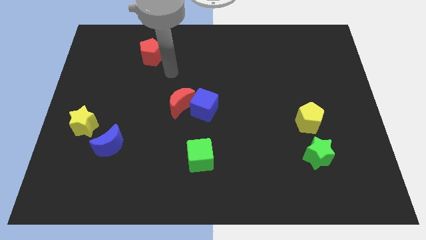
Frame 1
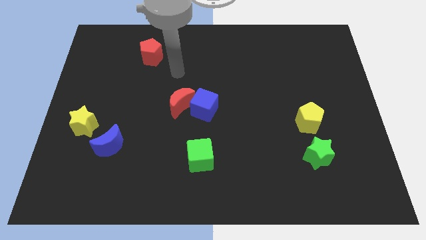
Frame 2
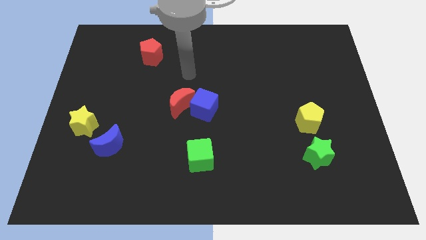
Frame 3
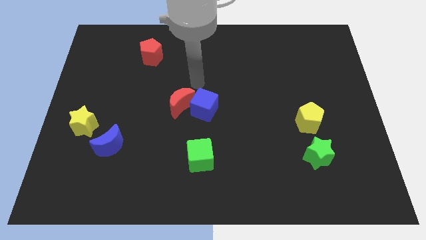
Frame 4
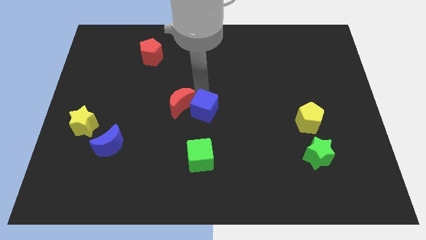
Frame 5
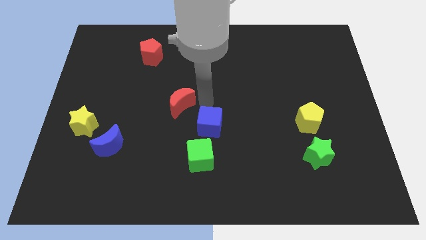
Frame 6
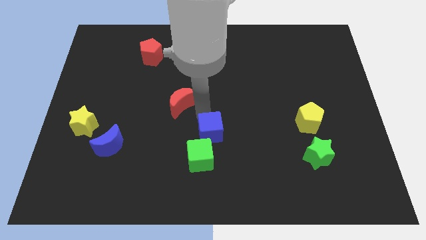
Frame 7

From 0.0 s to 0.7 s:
pull the red moon apart from the blue cube

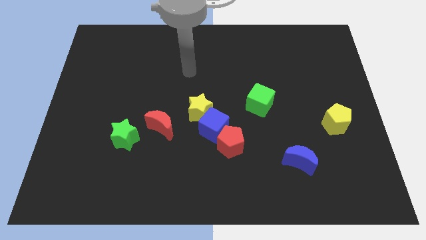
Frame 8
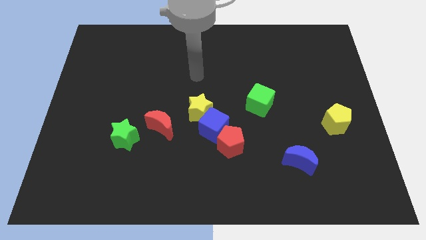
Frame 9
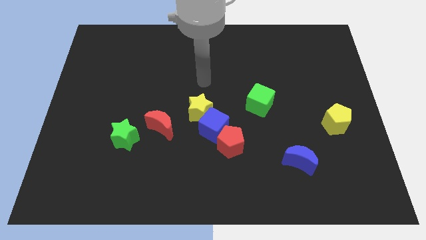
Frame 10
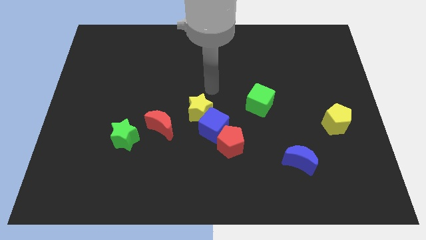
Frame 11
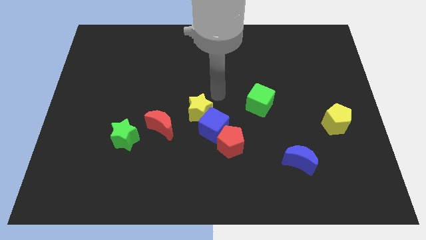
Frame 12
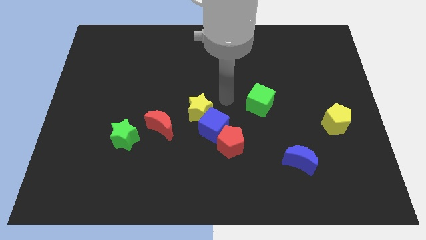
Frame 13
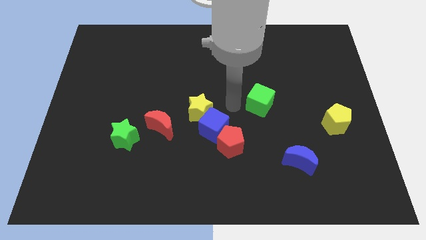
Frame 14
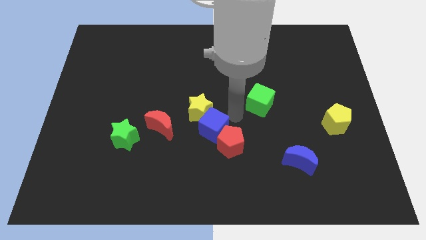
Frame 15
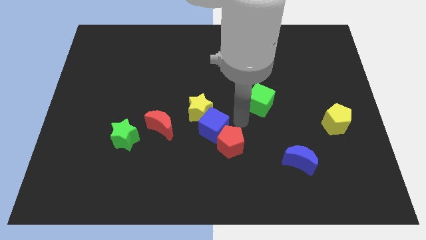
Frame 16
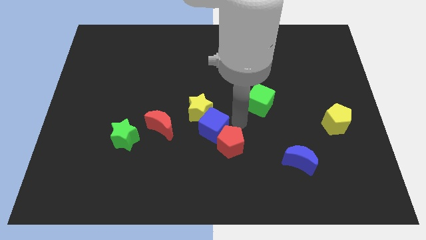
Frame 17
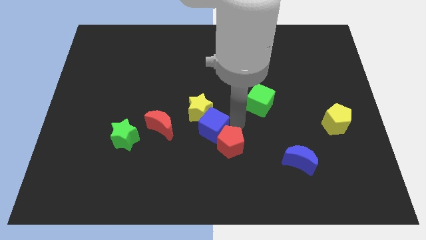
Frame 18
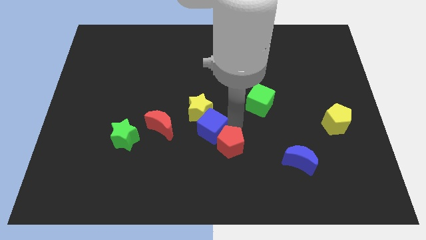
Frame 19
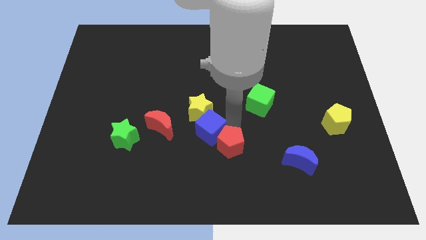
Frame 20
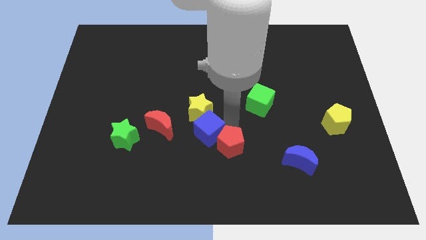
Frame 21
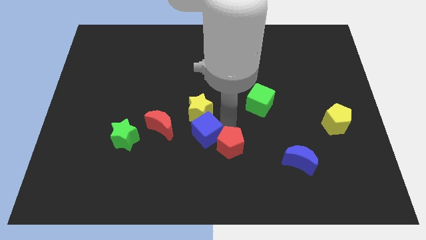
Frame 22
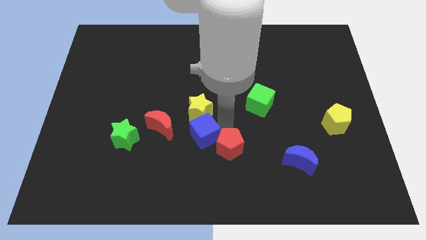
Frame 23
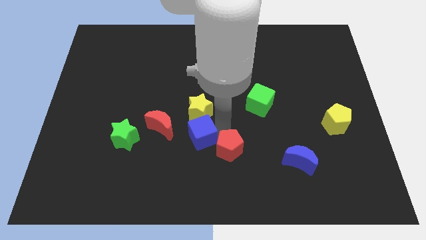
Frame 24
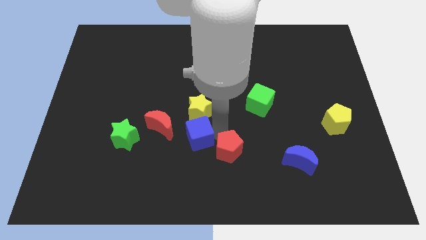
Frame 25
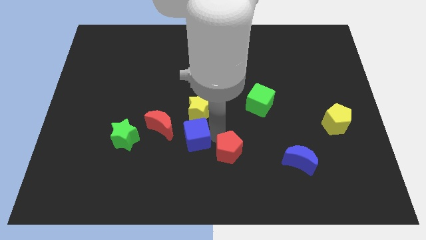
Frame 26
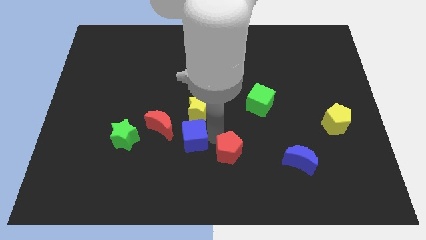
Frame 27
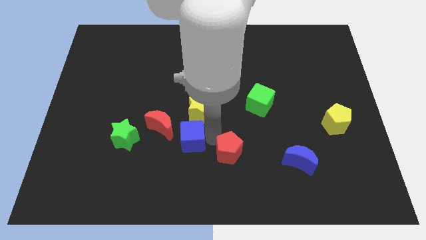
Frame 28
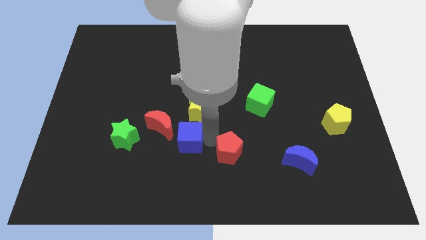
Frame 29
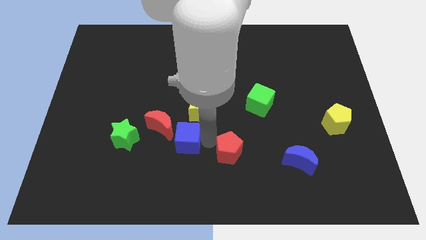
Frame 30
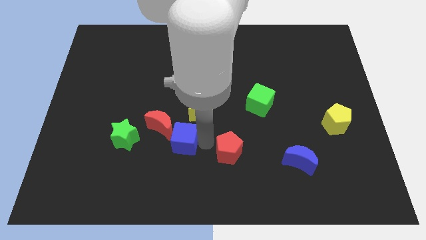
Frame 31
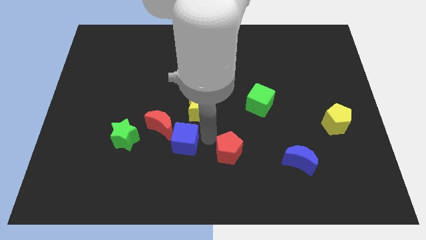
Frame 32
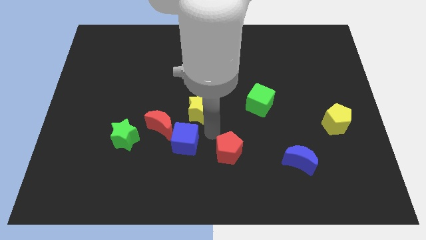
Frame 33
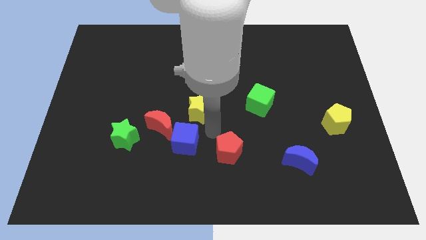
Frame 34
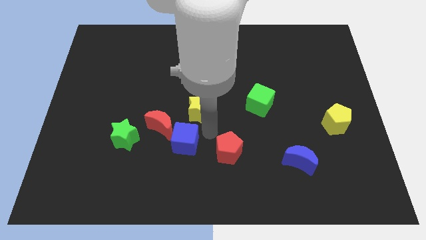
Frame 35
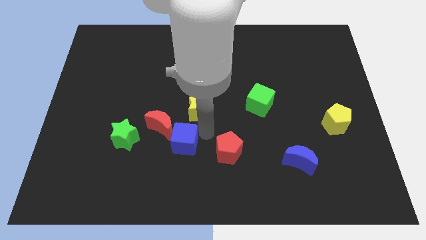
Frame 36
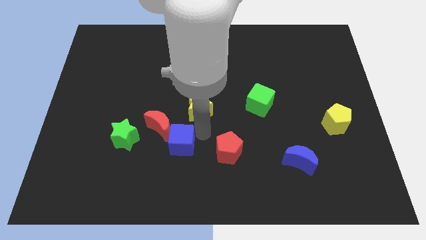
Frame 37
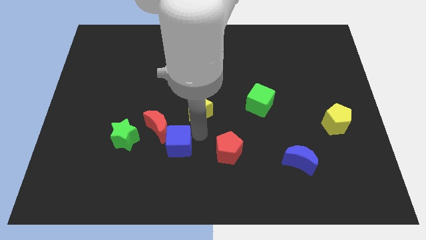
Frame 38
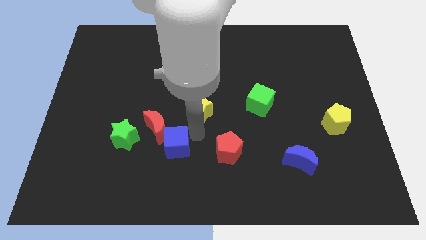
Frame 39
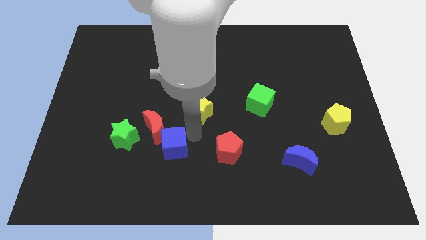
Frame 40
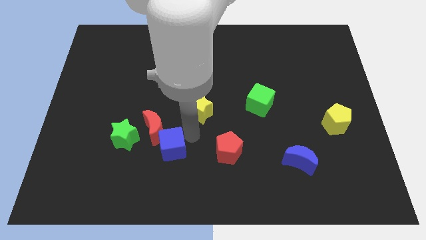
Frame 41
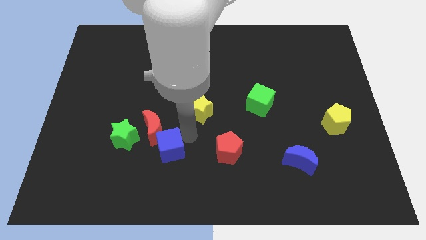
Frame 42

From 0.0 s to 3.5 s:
pull the blue cube apart from the yellow star and red pentagon

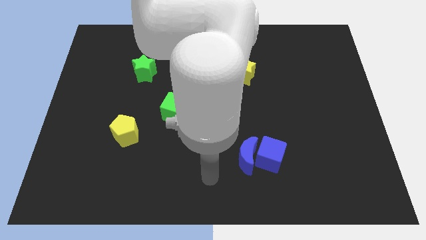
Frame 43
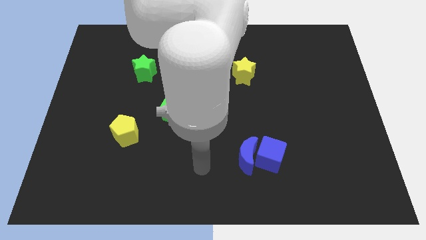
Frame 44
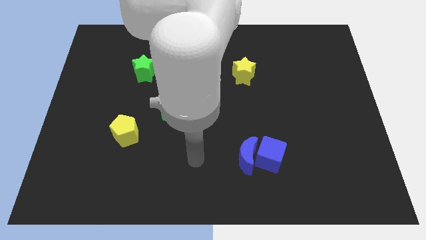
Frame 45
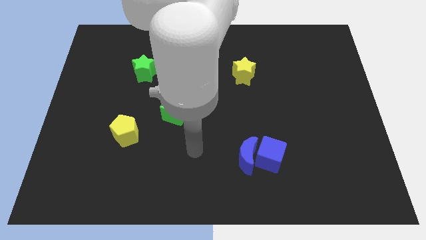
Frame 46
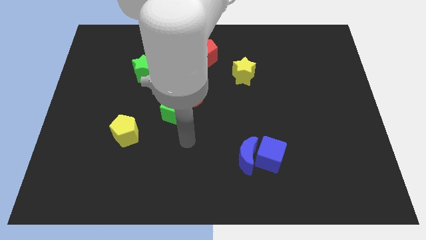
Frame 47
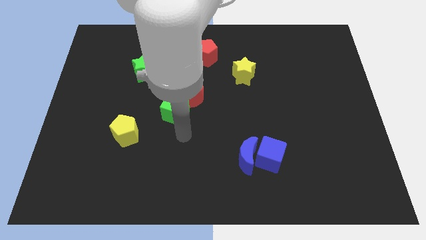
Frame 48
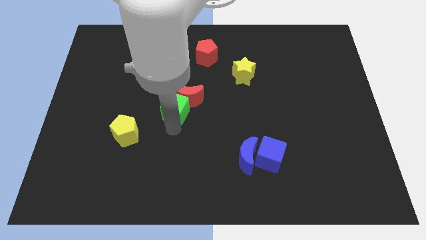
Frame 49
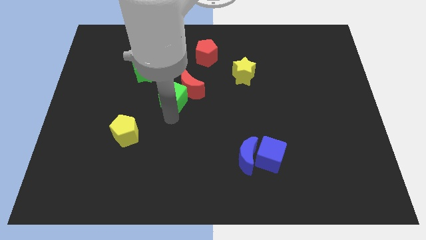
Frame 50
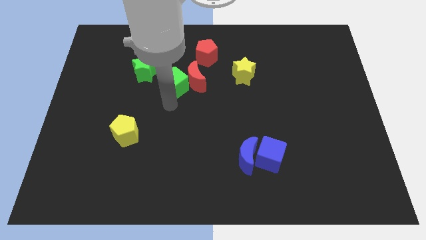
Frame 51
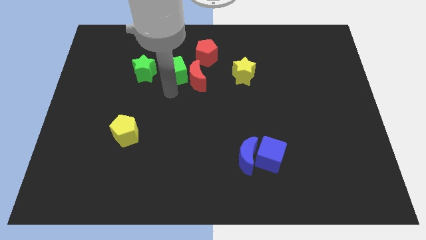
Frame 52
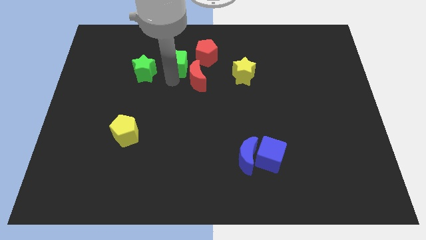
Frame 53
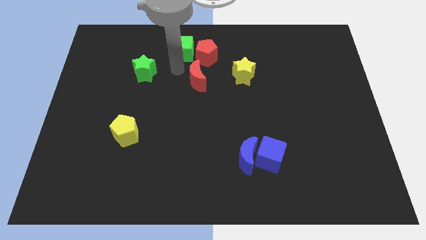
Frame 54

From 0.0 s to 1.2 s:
separate the red moon from the green cube

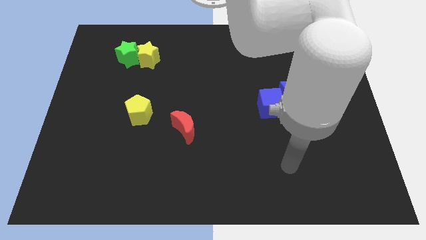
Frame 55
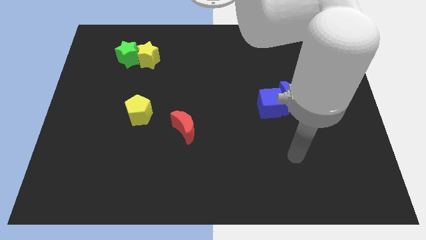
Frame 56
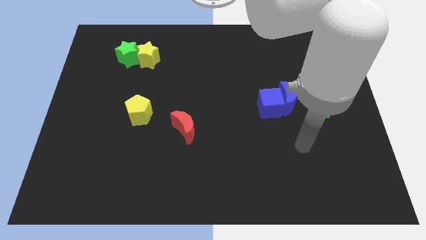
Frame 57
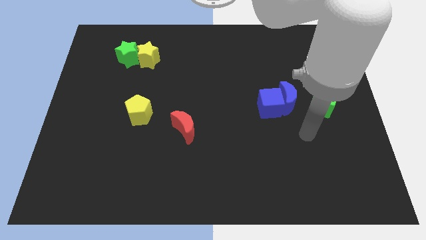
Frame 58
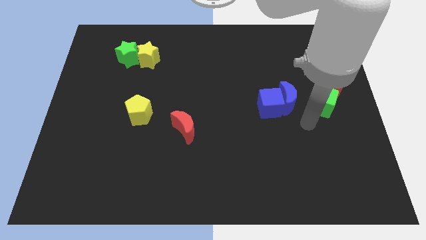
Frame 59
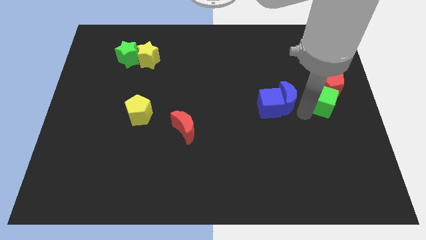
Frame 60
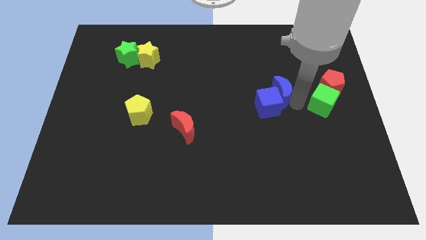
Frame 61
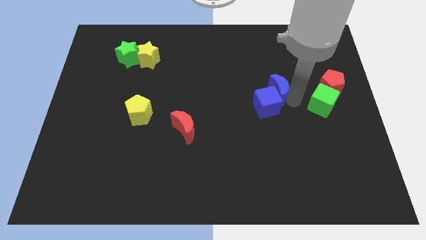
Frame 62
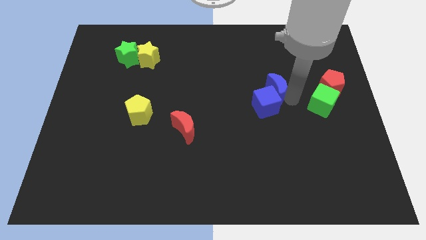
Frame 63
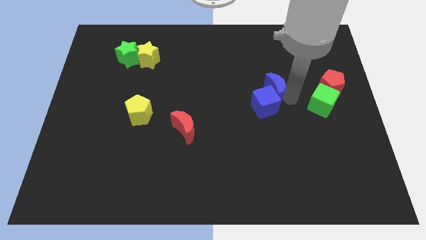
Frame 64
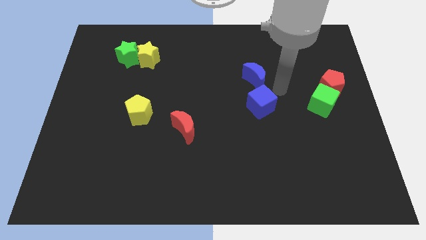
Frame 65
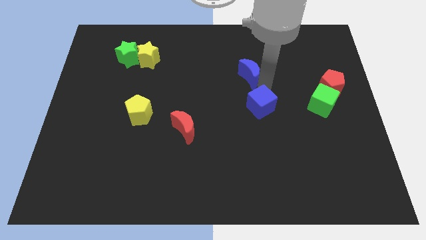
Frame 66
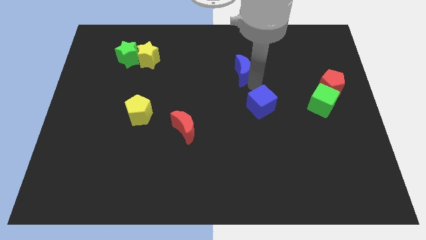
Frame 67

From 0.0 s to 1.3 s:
pull the blue cube apart from the blue moon

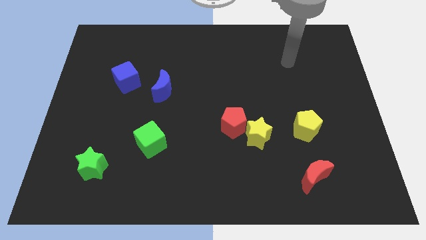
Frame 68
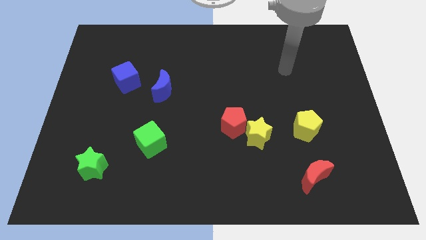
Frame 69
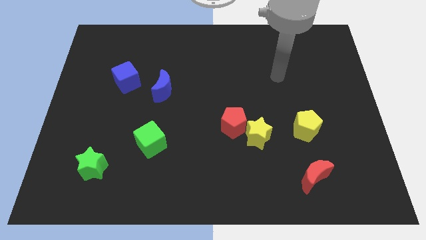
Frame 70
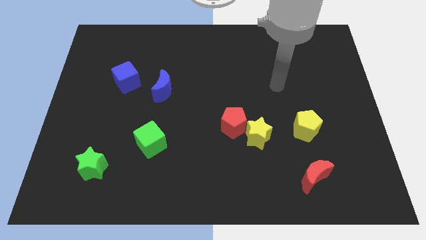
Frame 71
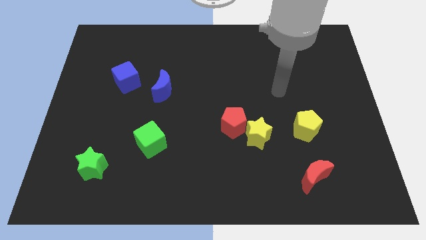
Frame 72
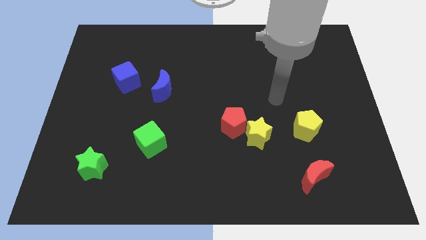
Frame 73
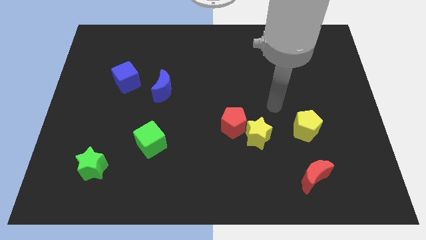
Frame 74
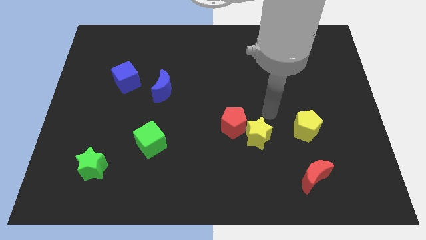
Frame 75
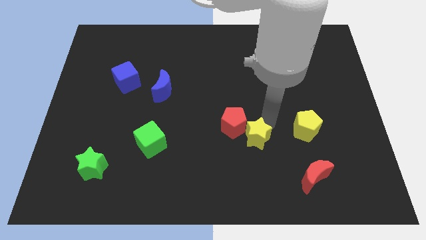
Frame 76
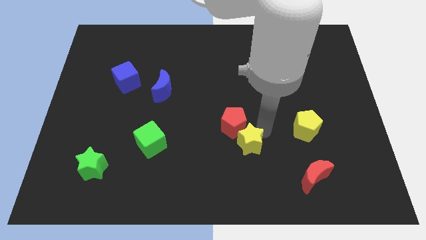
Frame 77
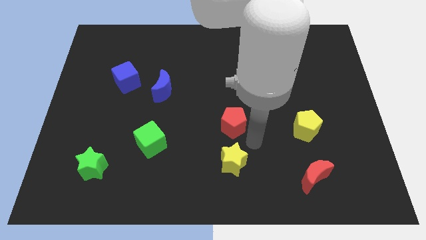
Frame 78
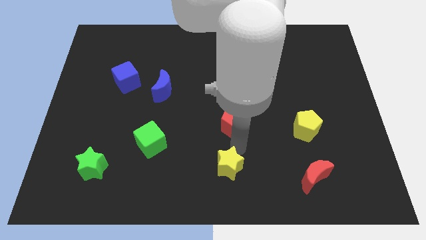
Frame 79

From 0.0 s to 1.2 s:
pull the red pentagon apart from the yellow star

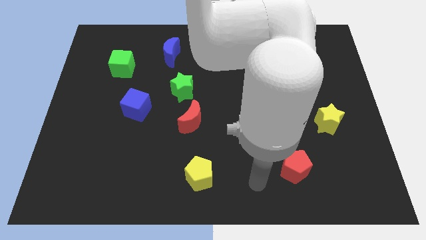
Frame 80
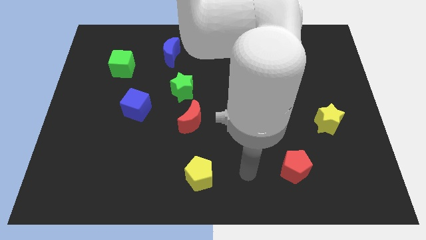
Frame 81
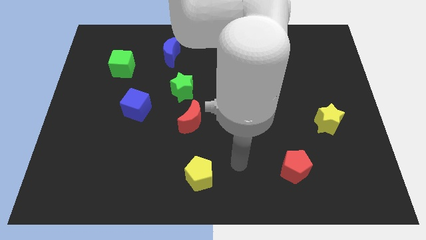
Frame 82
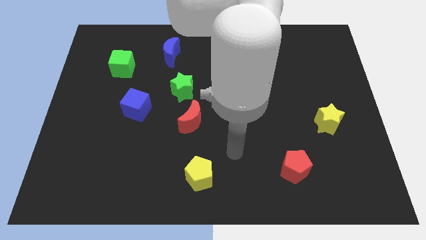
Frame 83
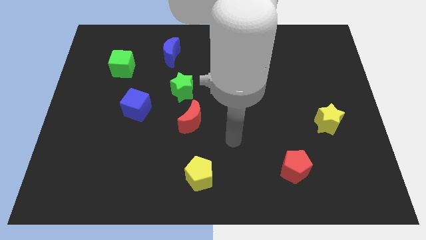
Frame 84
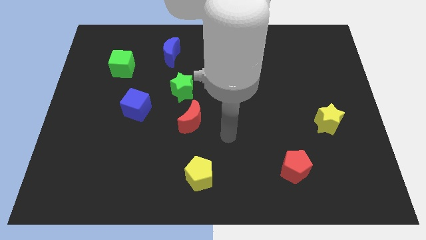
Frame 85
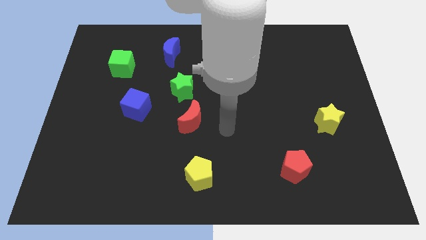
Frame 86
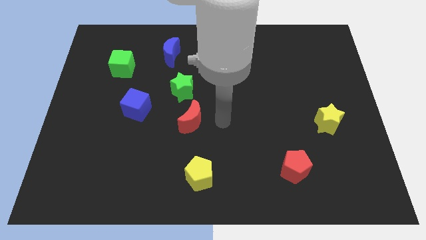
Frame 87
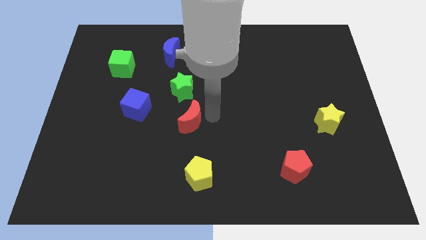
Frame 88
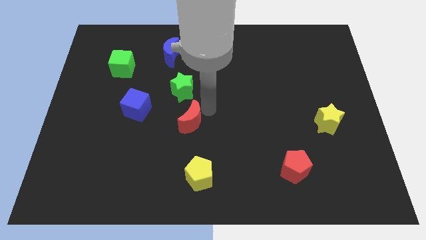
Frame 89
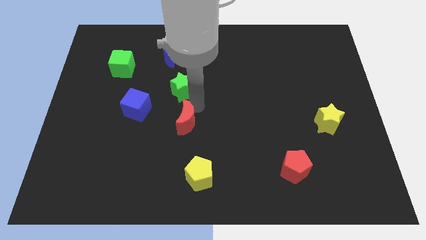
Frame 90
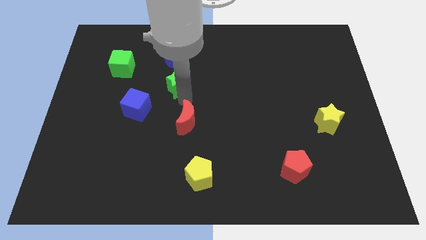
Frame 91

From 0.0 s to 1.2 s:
pull the red moon apart from the green star
